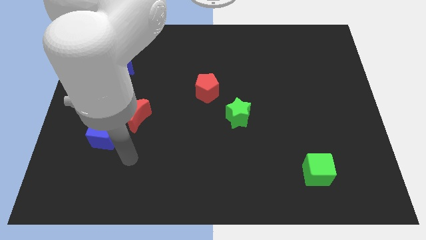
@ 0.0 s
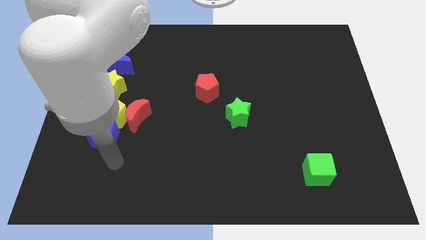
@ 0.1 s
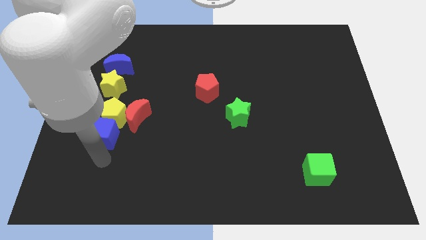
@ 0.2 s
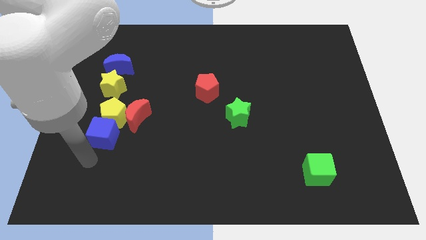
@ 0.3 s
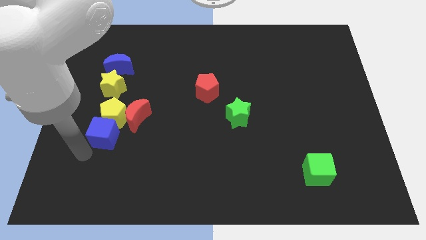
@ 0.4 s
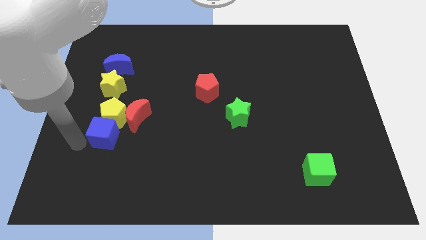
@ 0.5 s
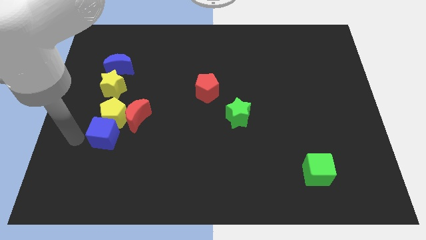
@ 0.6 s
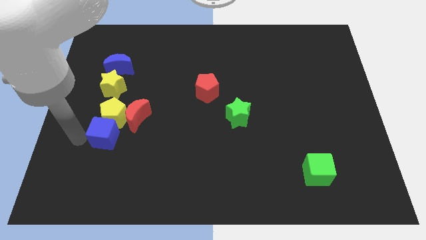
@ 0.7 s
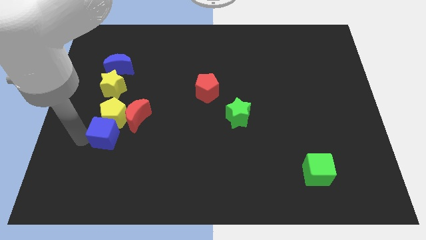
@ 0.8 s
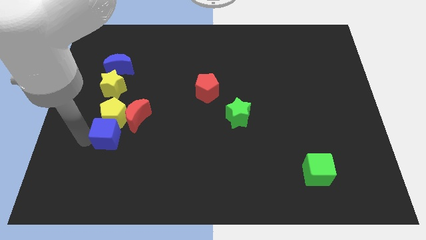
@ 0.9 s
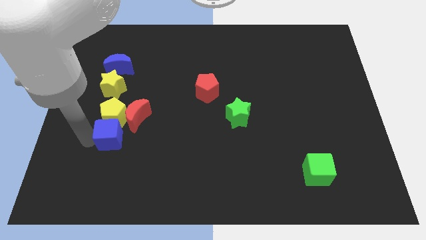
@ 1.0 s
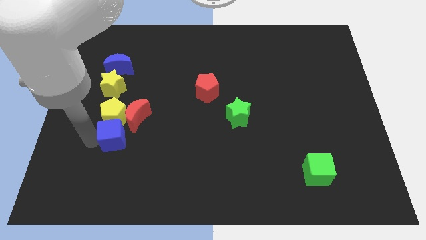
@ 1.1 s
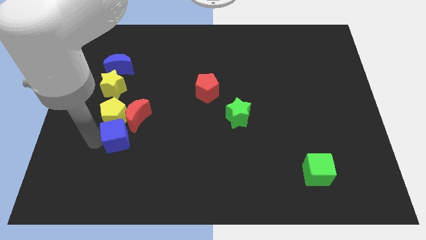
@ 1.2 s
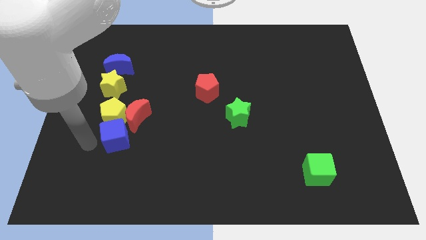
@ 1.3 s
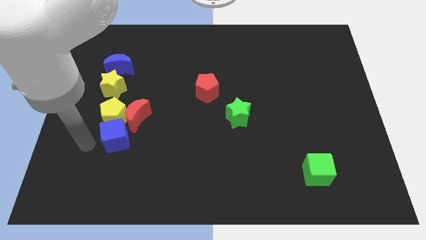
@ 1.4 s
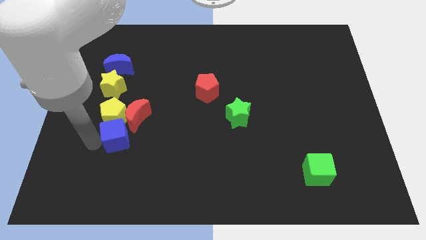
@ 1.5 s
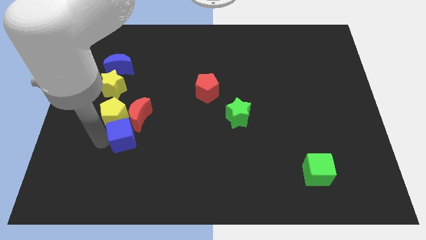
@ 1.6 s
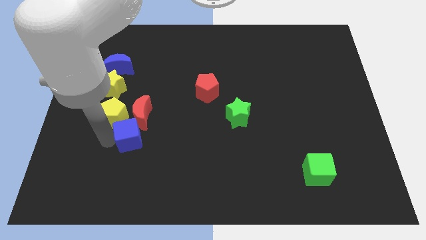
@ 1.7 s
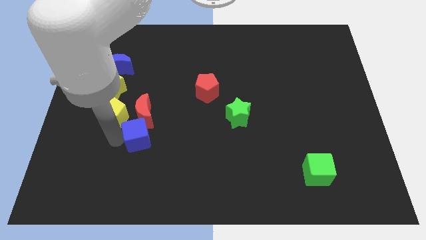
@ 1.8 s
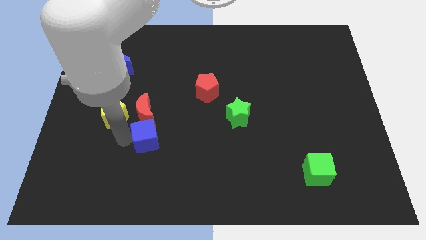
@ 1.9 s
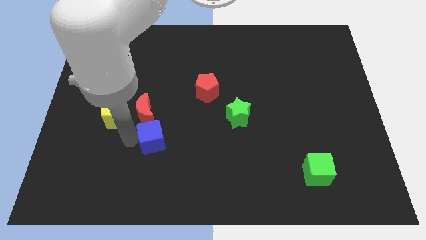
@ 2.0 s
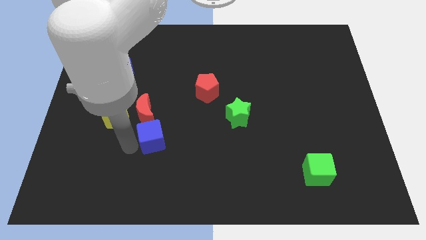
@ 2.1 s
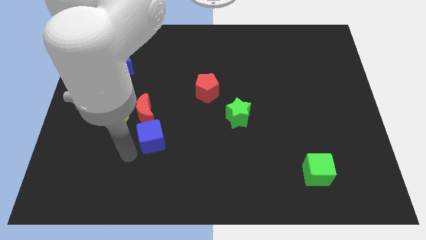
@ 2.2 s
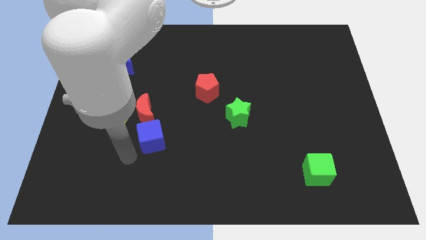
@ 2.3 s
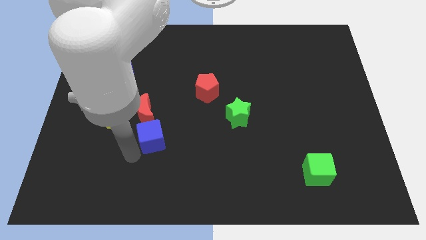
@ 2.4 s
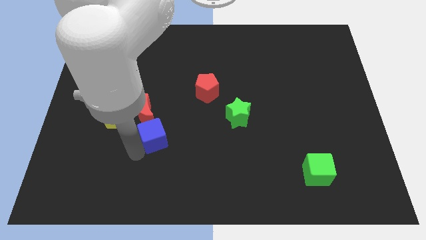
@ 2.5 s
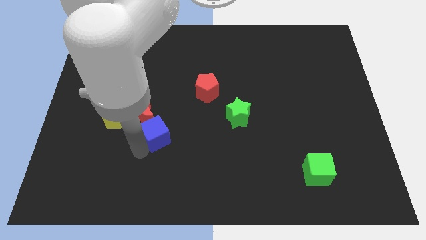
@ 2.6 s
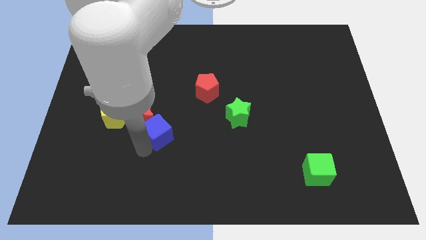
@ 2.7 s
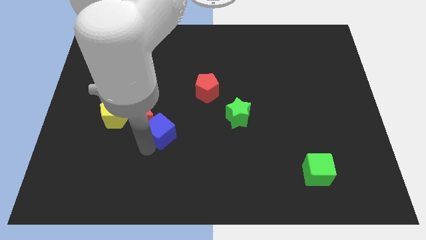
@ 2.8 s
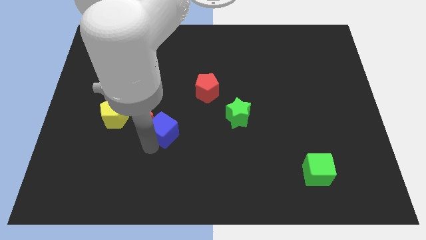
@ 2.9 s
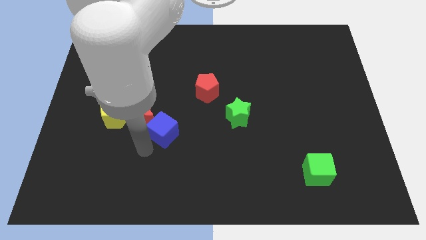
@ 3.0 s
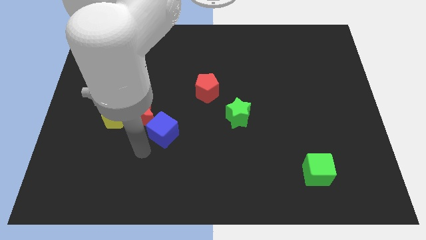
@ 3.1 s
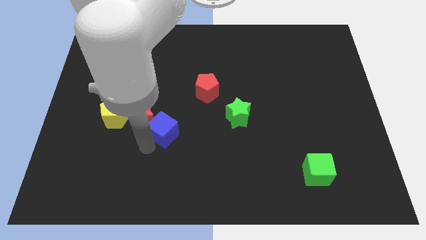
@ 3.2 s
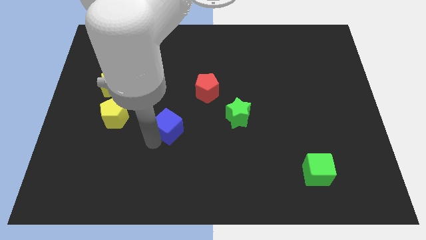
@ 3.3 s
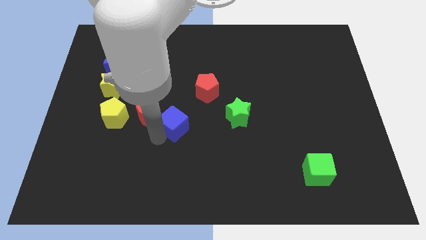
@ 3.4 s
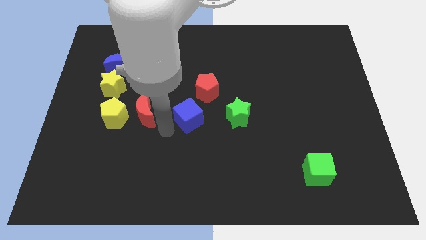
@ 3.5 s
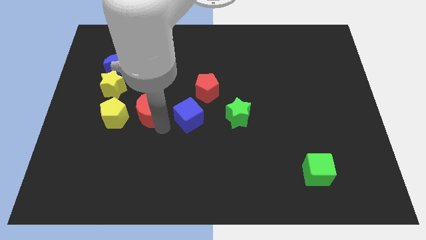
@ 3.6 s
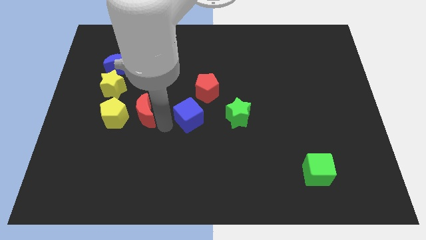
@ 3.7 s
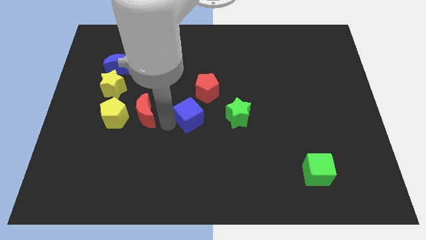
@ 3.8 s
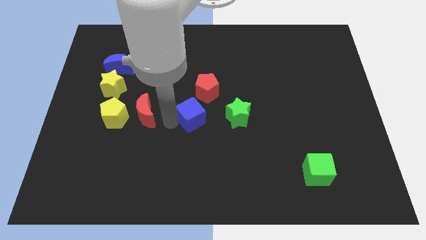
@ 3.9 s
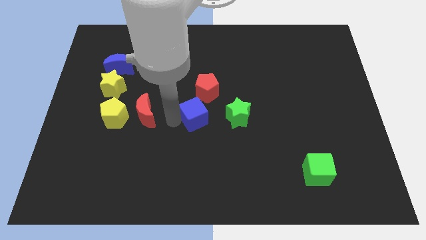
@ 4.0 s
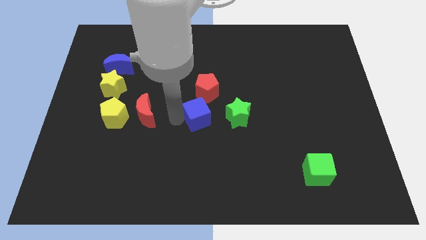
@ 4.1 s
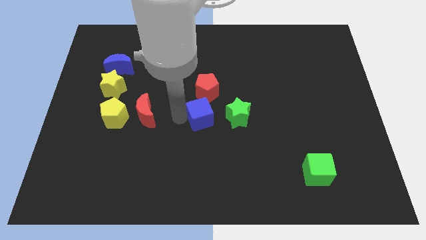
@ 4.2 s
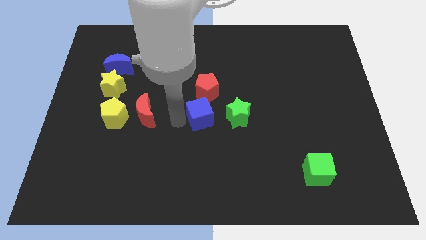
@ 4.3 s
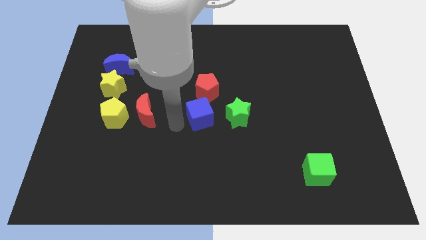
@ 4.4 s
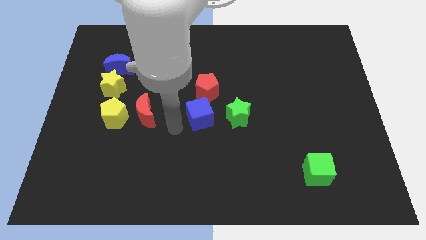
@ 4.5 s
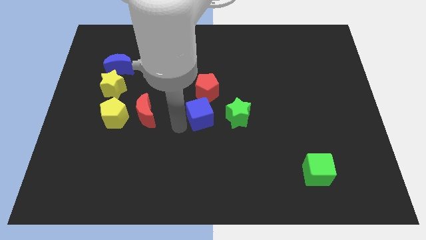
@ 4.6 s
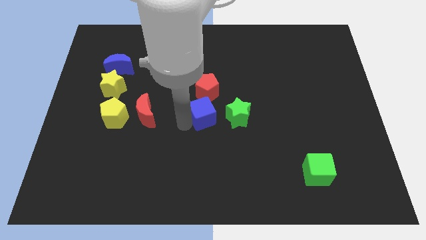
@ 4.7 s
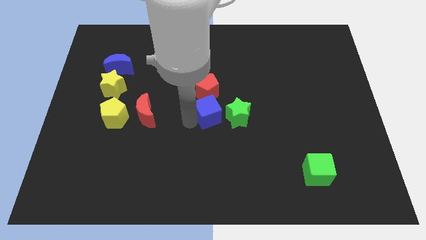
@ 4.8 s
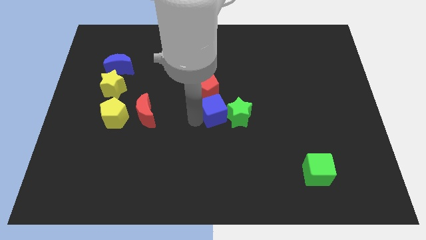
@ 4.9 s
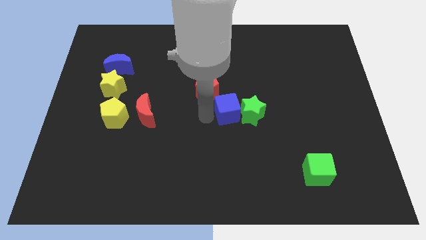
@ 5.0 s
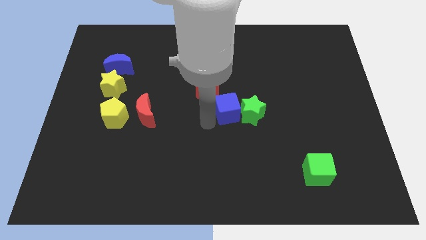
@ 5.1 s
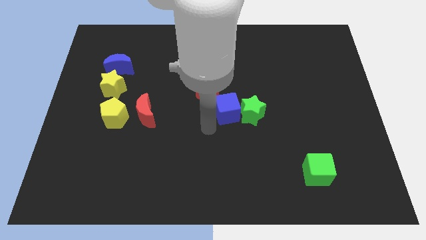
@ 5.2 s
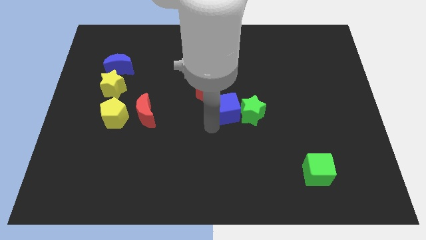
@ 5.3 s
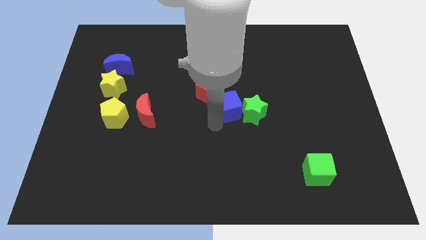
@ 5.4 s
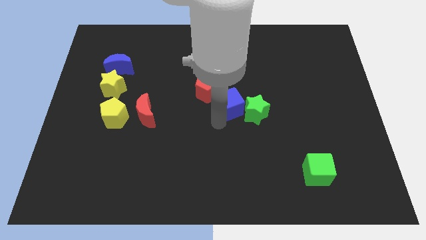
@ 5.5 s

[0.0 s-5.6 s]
put the blue cube right of the red pentagon

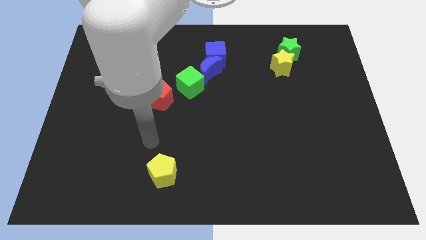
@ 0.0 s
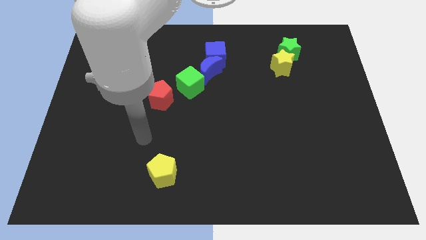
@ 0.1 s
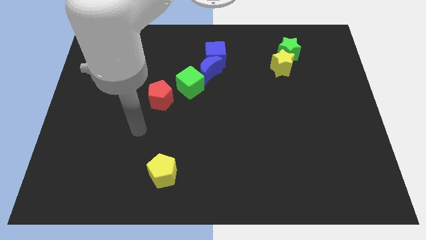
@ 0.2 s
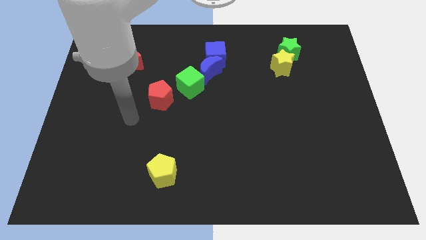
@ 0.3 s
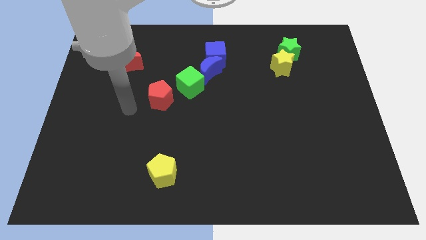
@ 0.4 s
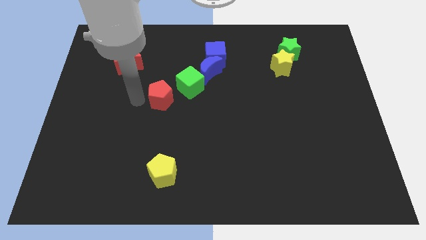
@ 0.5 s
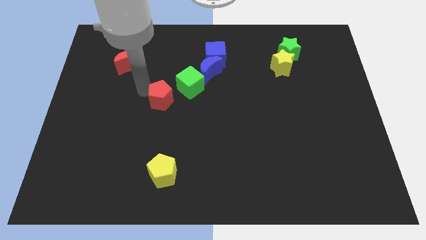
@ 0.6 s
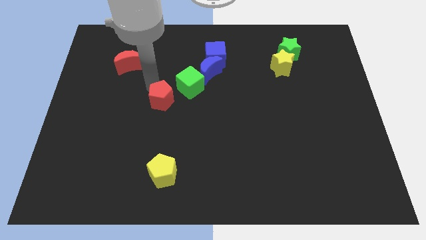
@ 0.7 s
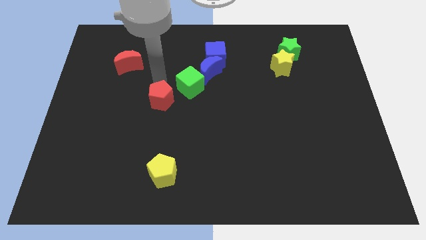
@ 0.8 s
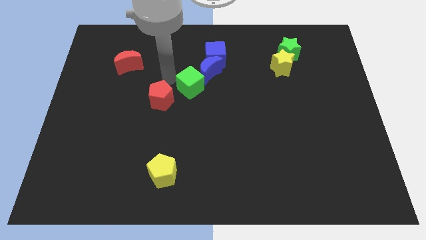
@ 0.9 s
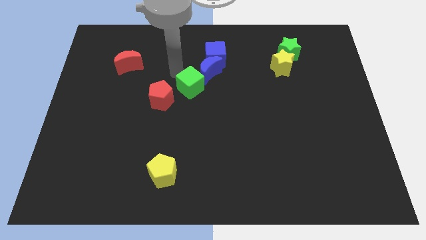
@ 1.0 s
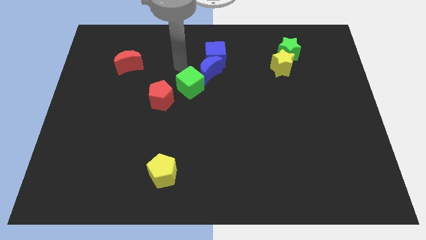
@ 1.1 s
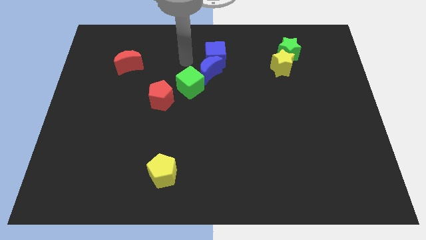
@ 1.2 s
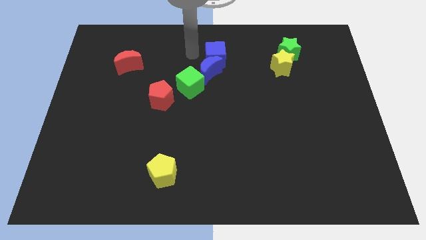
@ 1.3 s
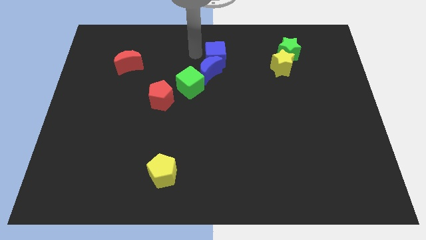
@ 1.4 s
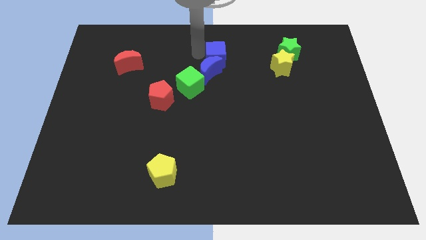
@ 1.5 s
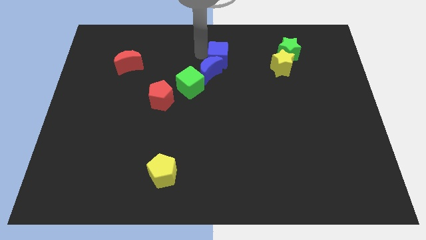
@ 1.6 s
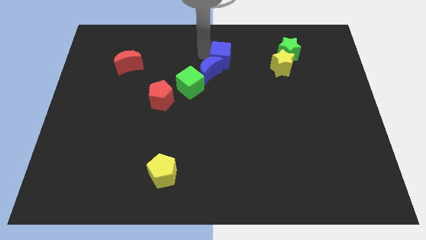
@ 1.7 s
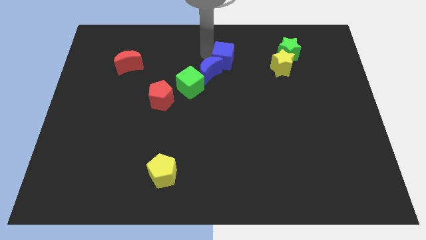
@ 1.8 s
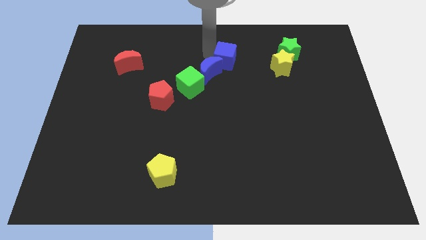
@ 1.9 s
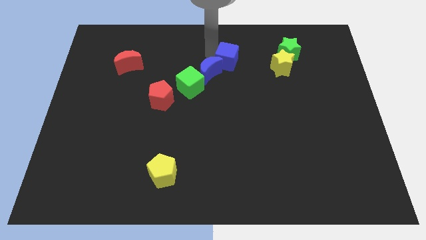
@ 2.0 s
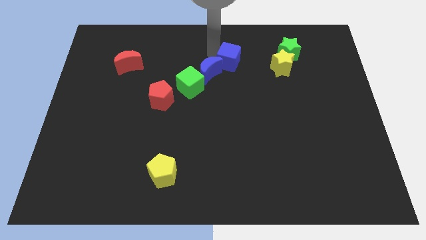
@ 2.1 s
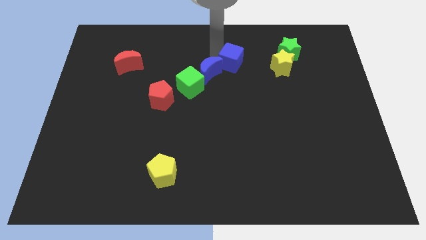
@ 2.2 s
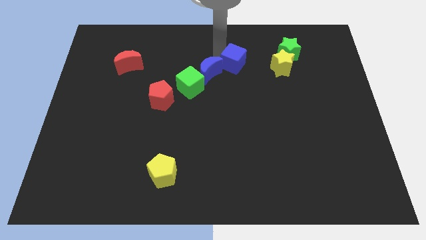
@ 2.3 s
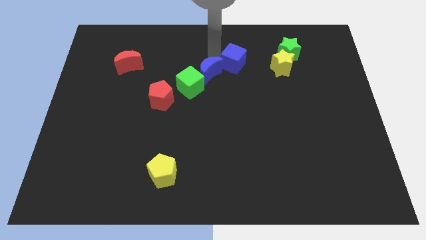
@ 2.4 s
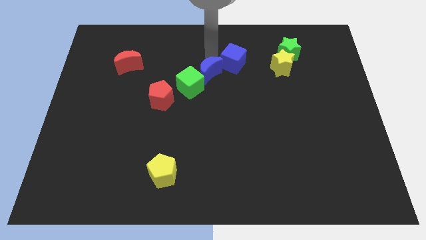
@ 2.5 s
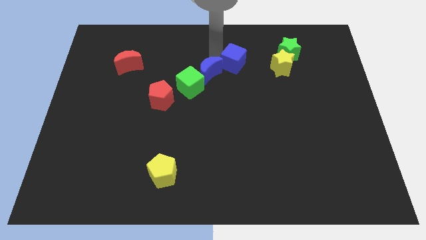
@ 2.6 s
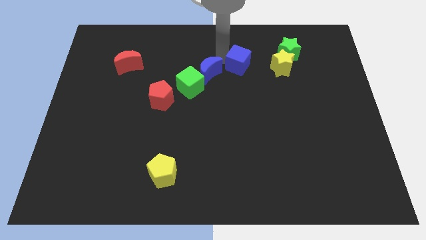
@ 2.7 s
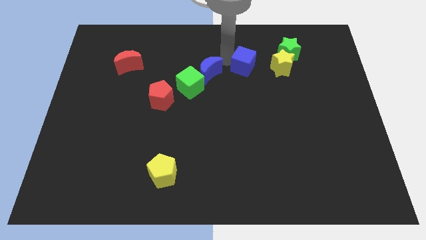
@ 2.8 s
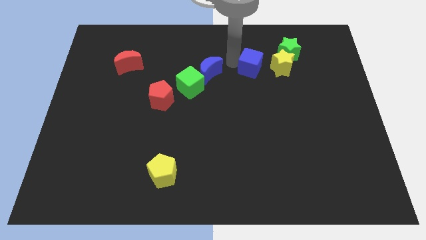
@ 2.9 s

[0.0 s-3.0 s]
put the blue cube to the bottom left side of the green star
